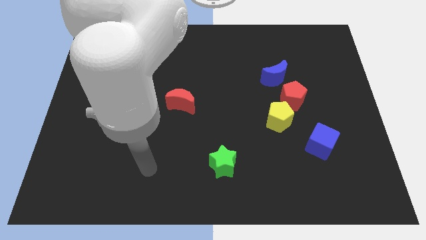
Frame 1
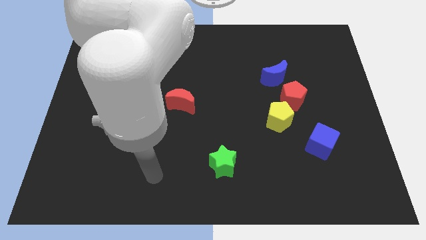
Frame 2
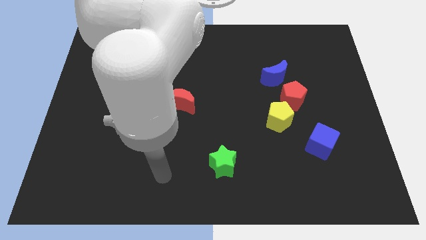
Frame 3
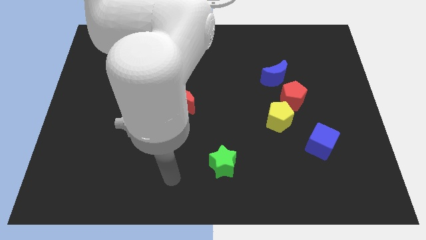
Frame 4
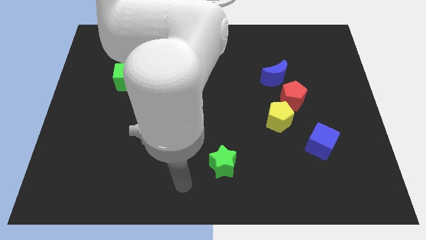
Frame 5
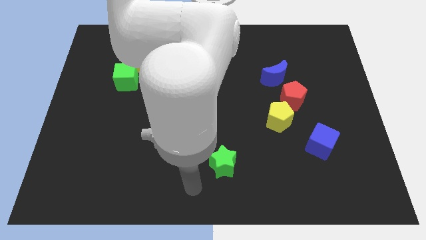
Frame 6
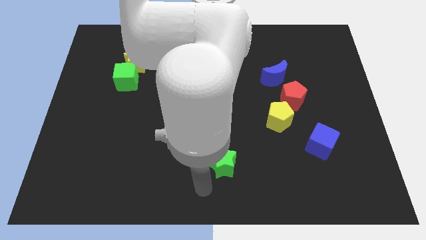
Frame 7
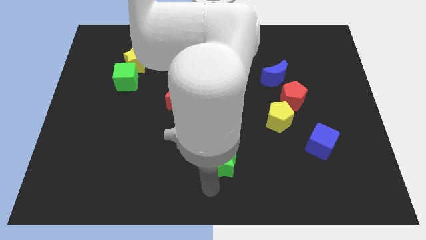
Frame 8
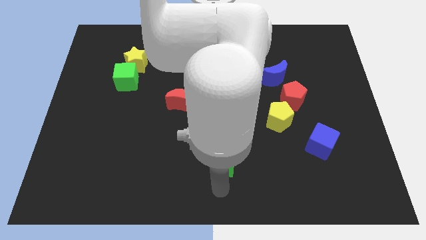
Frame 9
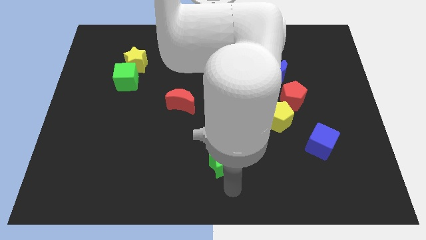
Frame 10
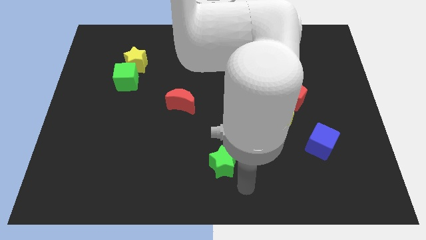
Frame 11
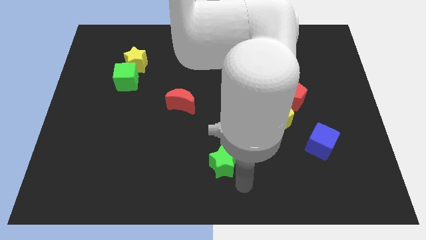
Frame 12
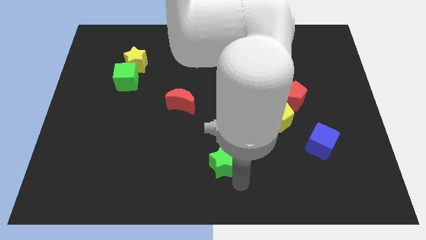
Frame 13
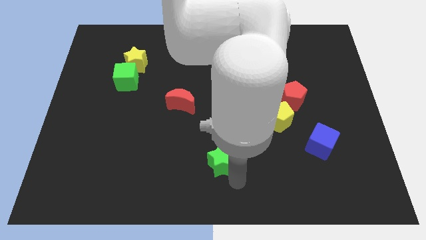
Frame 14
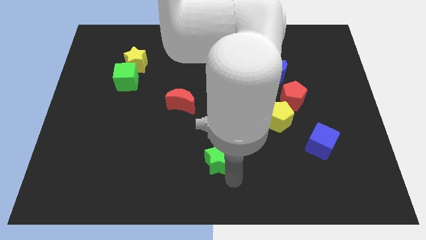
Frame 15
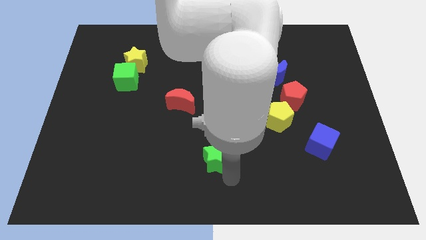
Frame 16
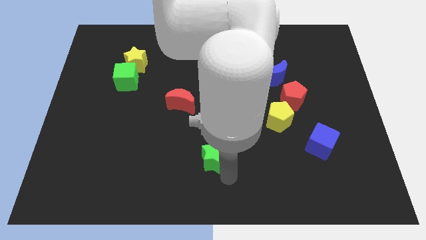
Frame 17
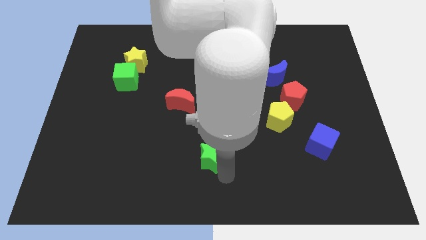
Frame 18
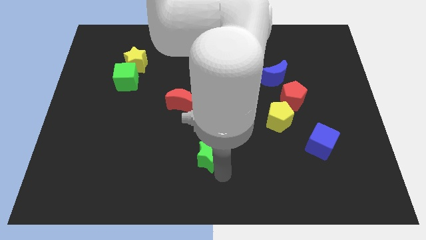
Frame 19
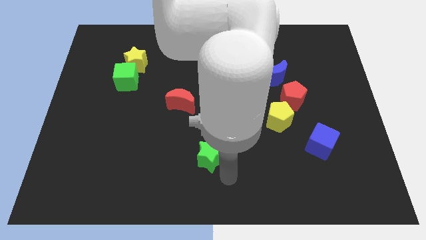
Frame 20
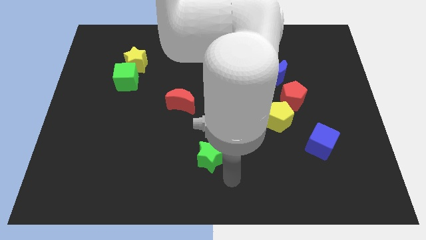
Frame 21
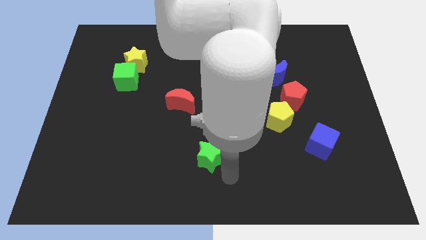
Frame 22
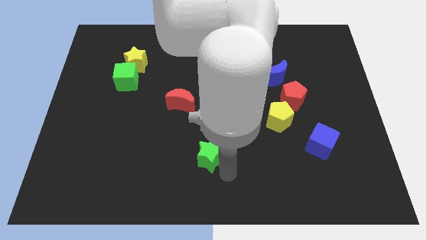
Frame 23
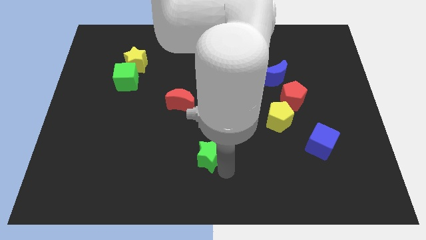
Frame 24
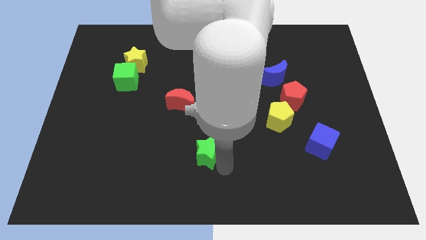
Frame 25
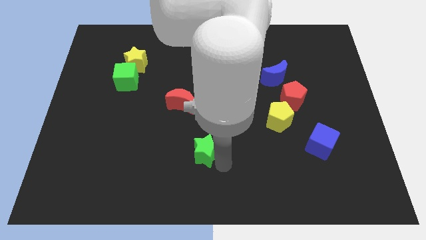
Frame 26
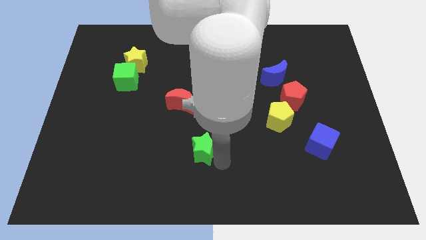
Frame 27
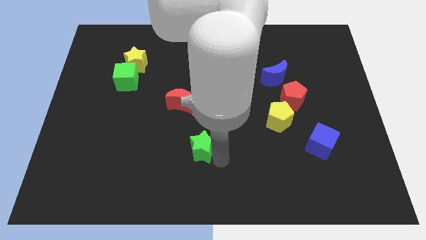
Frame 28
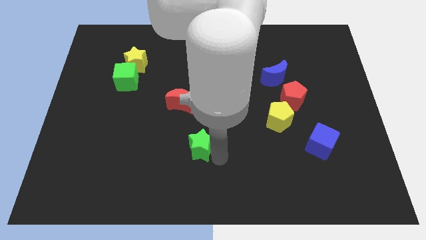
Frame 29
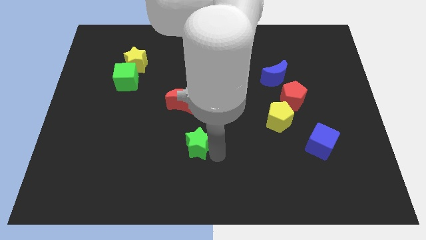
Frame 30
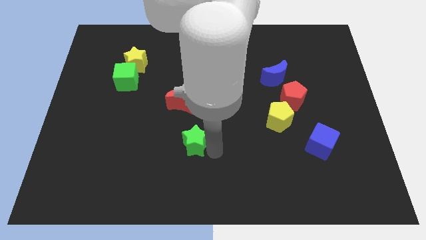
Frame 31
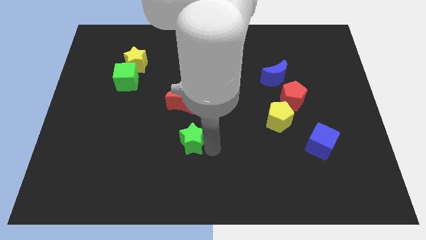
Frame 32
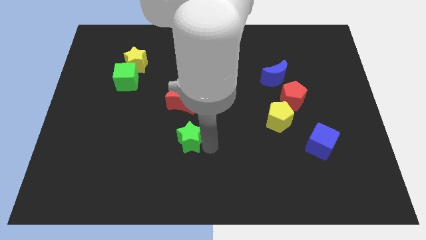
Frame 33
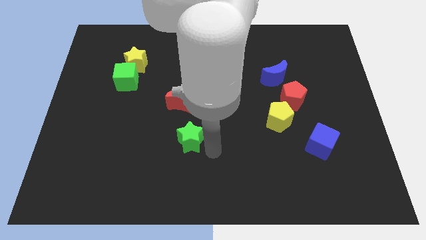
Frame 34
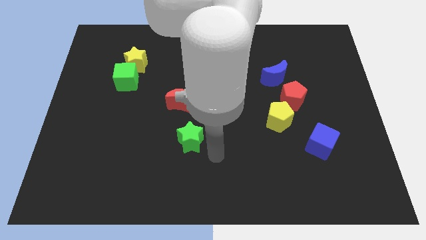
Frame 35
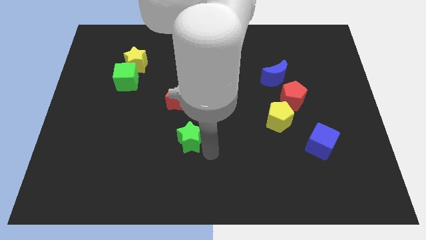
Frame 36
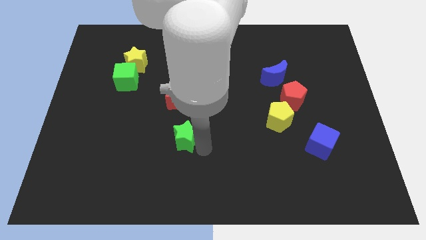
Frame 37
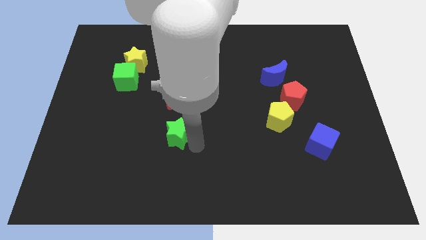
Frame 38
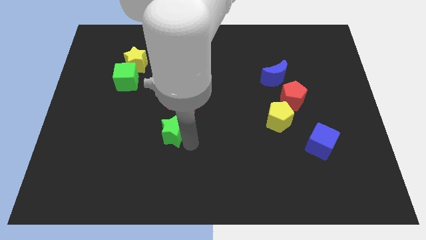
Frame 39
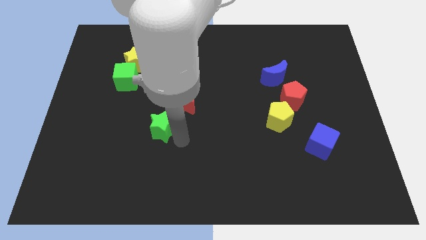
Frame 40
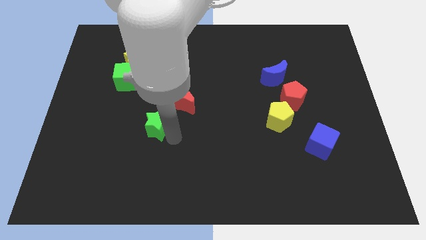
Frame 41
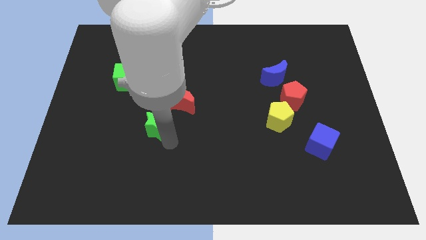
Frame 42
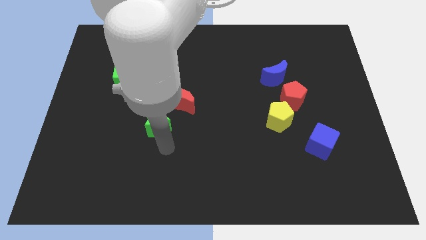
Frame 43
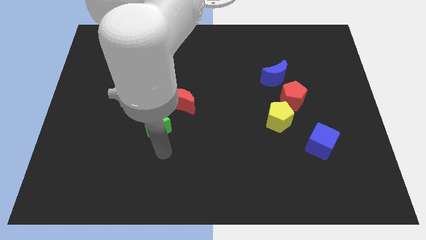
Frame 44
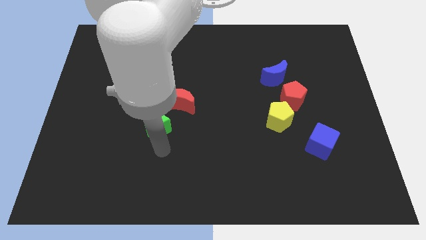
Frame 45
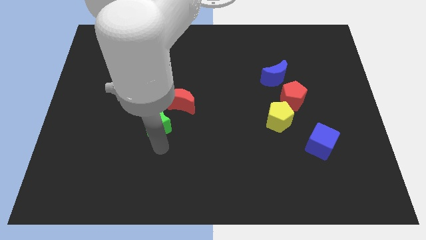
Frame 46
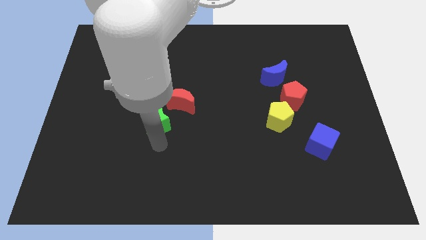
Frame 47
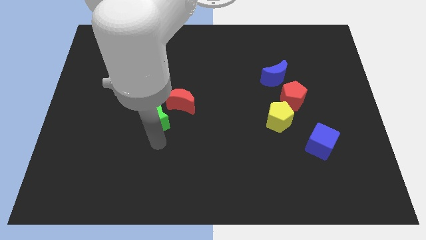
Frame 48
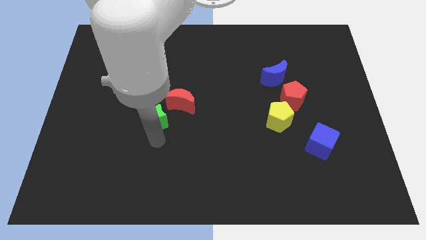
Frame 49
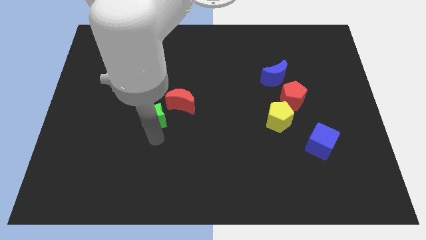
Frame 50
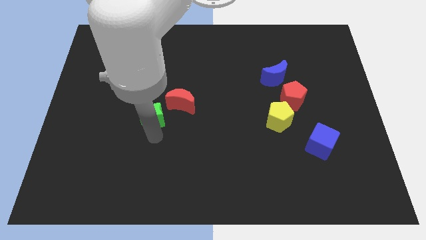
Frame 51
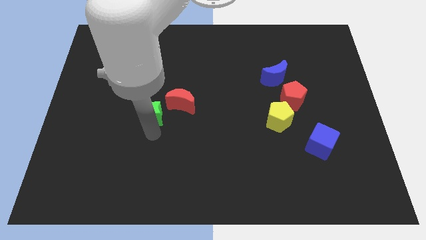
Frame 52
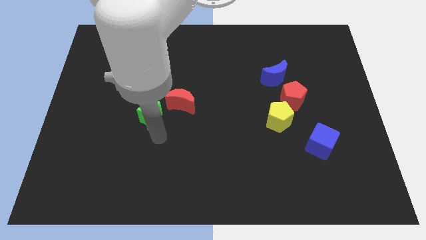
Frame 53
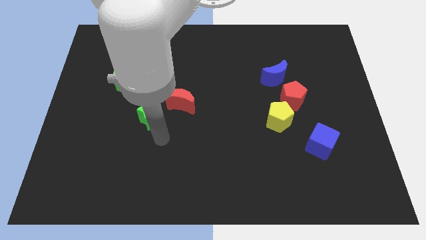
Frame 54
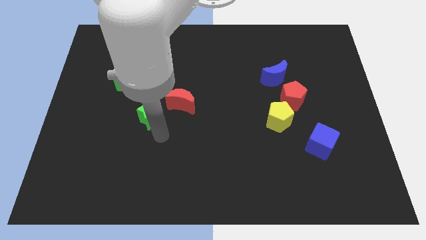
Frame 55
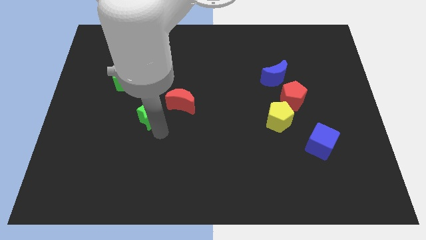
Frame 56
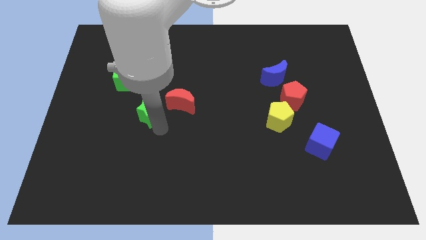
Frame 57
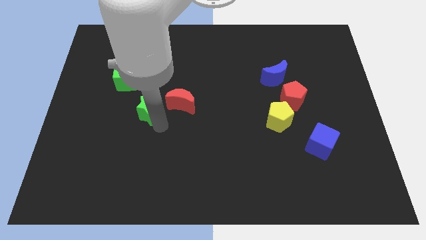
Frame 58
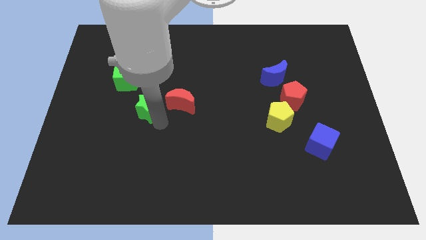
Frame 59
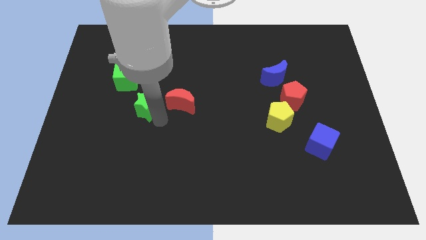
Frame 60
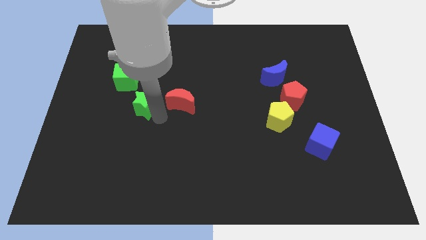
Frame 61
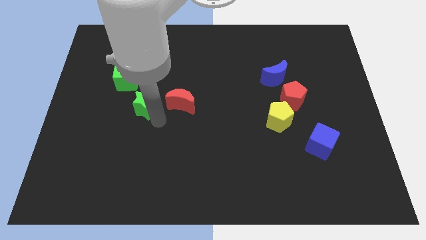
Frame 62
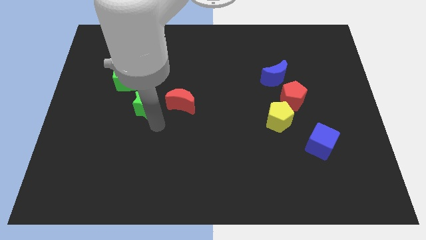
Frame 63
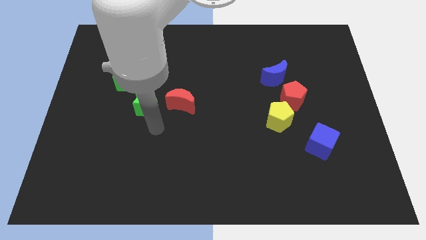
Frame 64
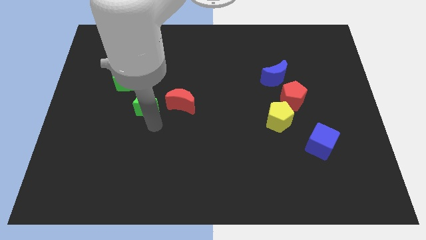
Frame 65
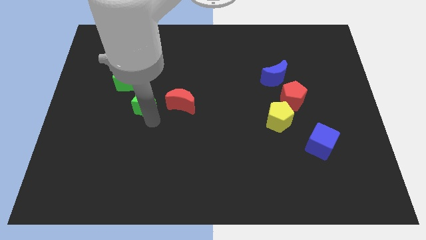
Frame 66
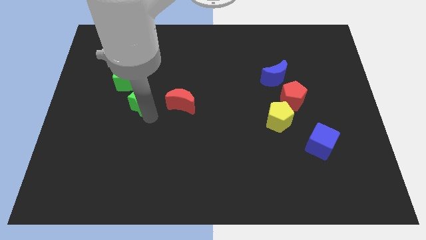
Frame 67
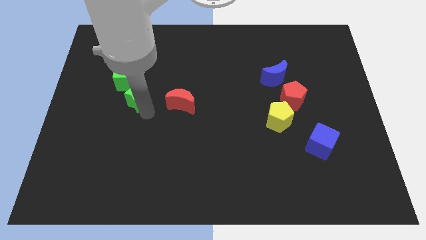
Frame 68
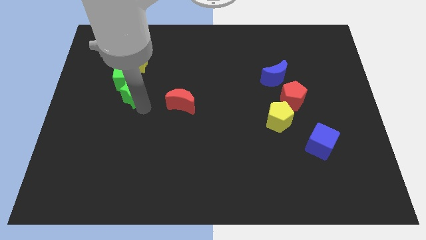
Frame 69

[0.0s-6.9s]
slide the green star close to the green cube
